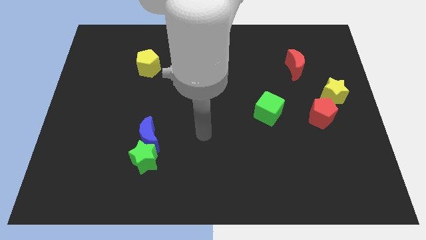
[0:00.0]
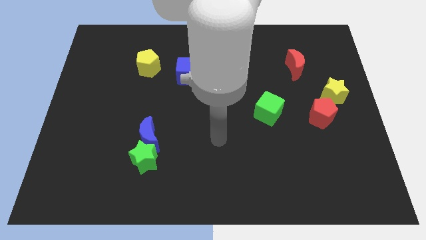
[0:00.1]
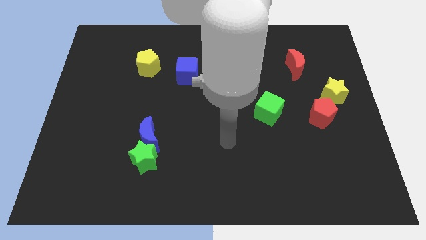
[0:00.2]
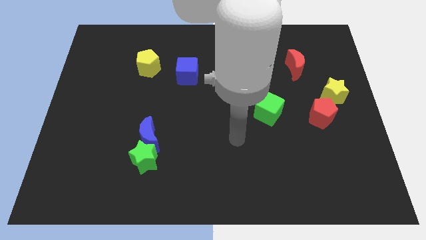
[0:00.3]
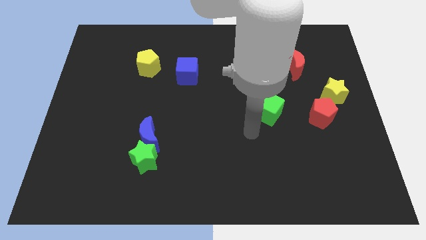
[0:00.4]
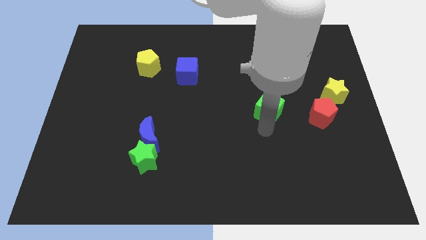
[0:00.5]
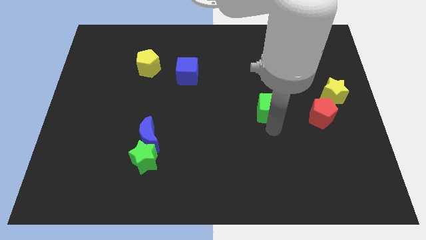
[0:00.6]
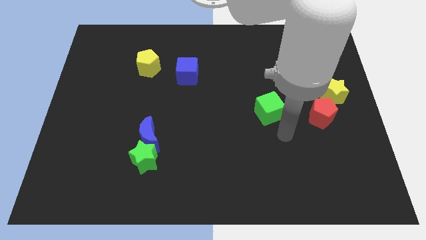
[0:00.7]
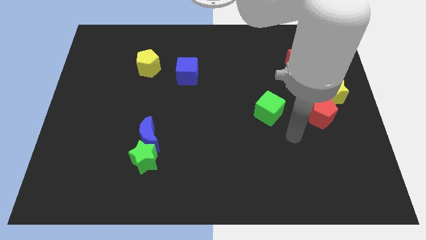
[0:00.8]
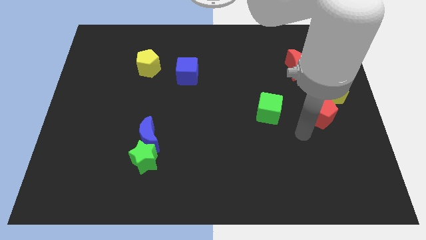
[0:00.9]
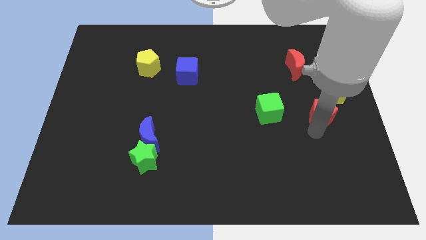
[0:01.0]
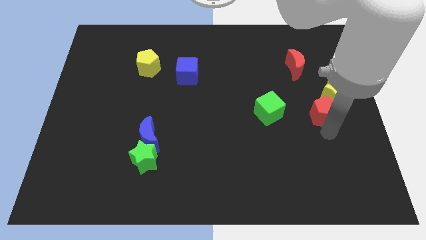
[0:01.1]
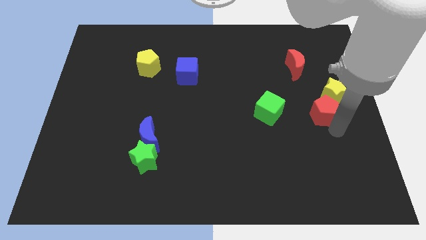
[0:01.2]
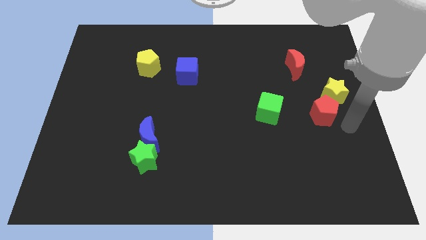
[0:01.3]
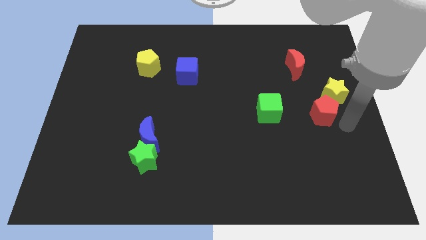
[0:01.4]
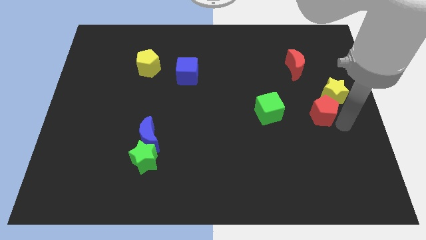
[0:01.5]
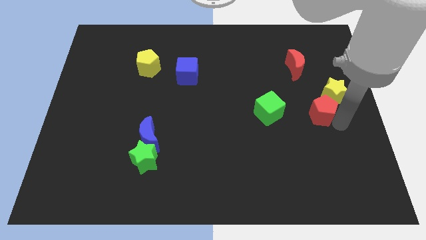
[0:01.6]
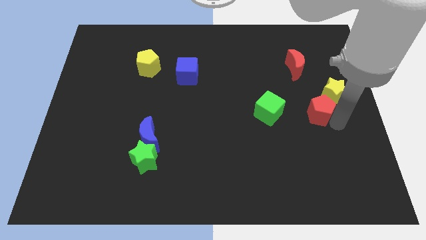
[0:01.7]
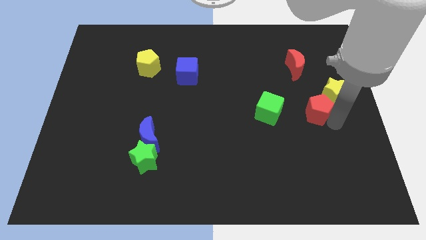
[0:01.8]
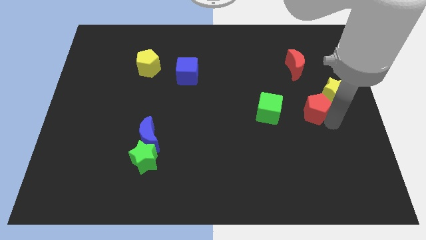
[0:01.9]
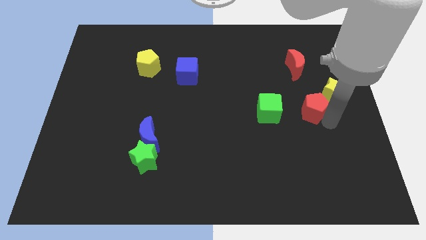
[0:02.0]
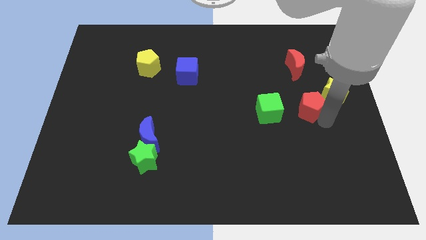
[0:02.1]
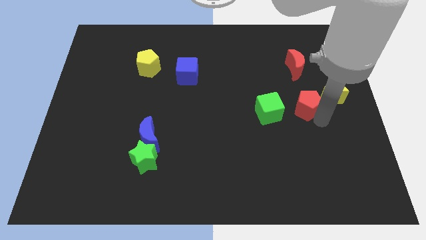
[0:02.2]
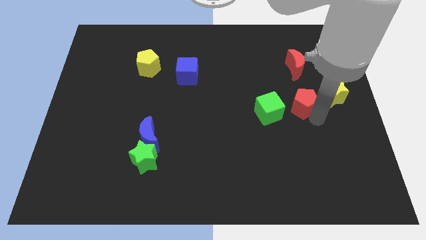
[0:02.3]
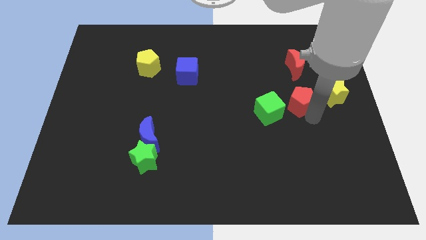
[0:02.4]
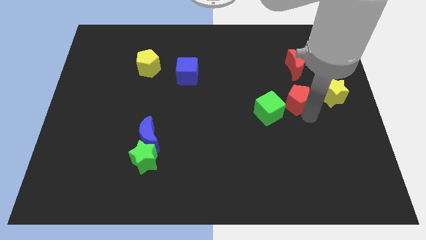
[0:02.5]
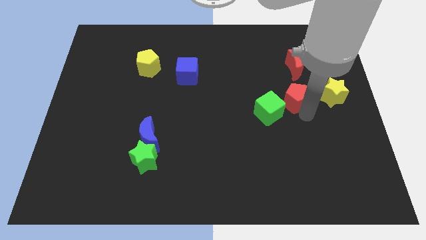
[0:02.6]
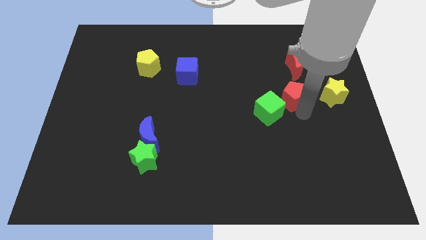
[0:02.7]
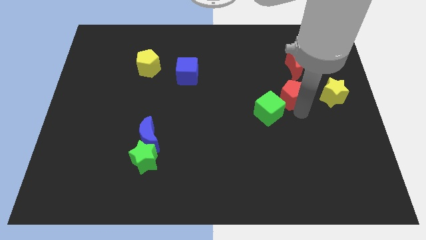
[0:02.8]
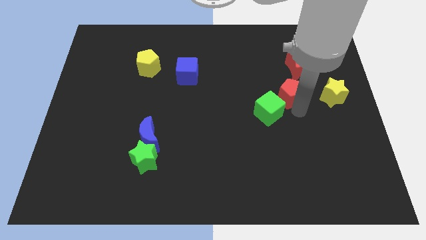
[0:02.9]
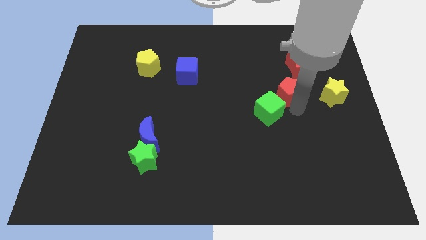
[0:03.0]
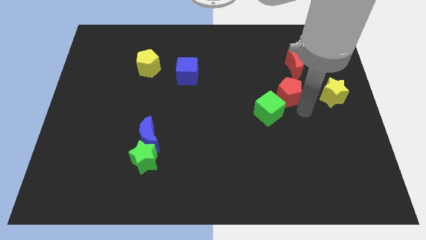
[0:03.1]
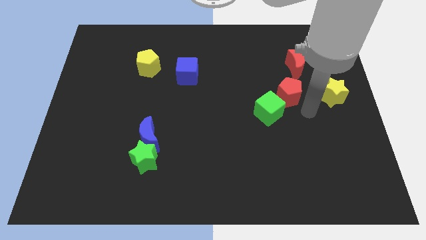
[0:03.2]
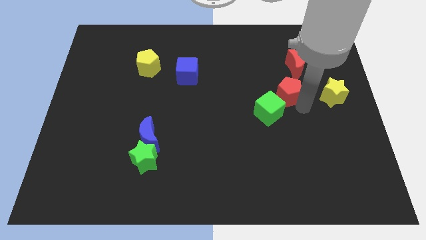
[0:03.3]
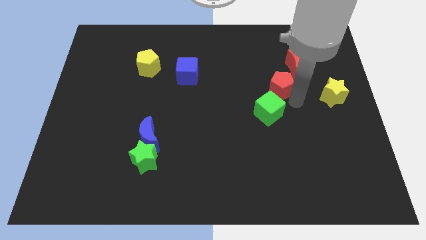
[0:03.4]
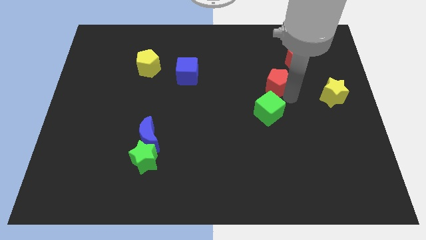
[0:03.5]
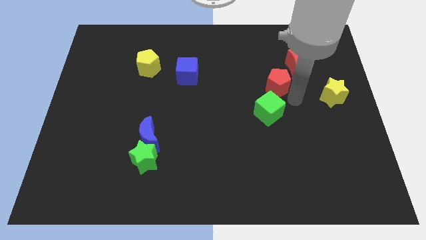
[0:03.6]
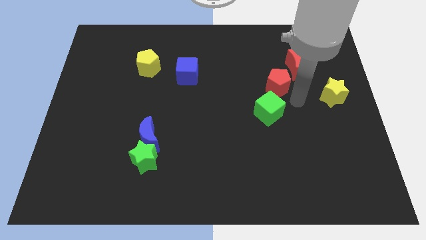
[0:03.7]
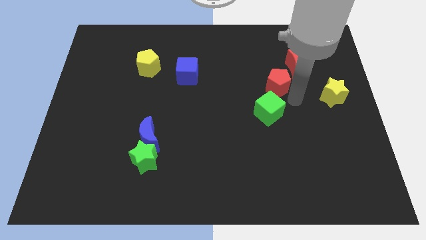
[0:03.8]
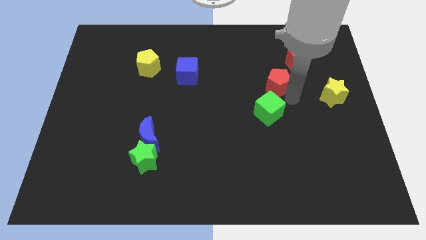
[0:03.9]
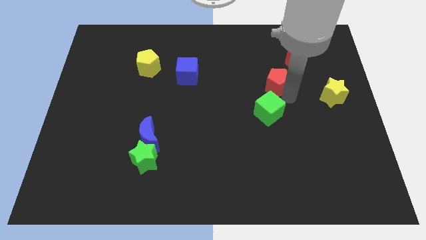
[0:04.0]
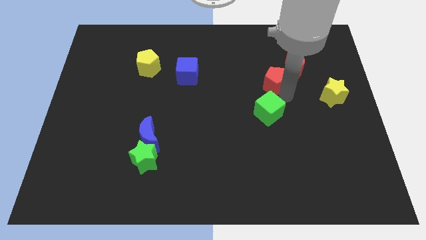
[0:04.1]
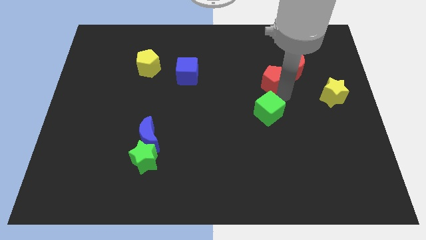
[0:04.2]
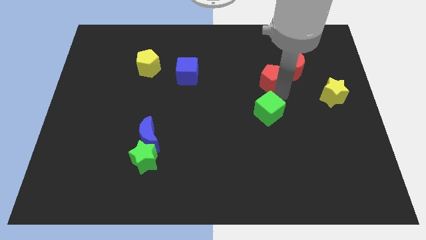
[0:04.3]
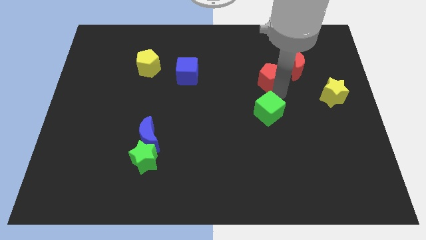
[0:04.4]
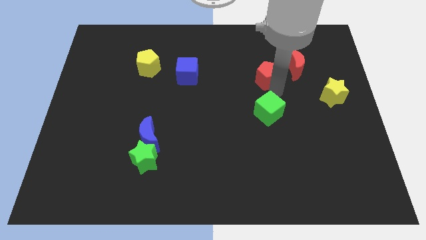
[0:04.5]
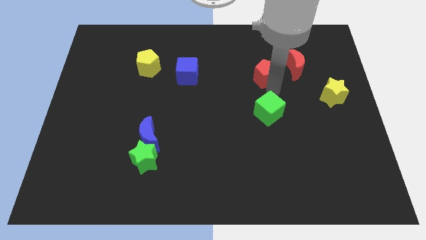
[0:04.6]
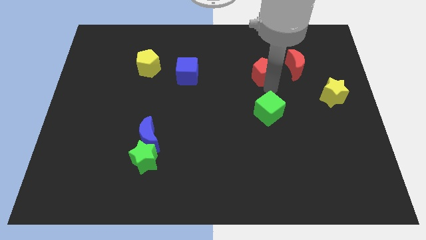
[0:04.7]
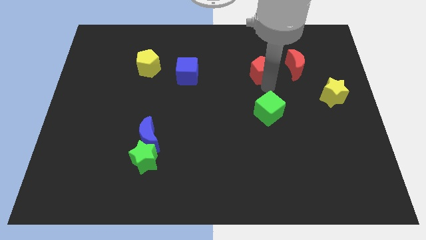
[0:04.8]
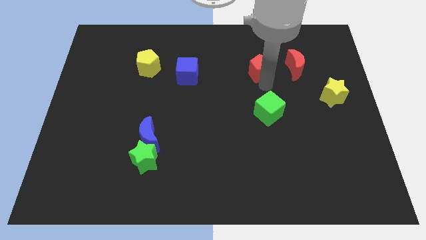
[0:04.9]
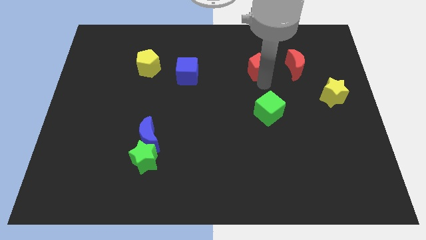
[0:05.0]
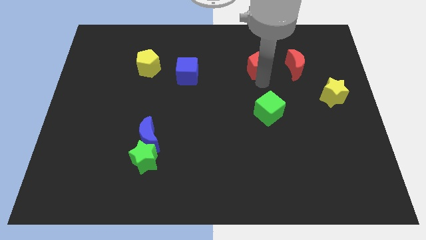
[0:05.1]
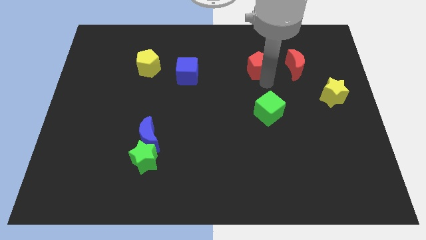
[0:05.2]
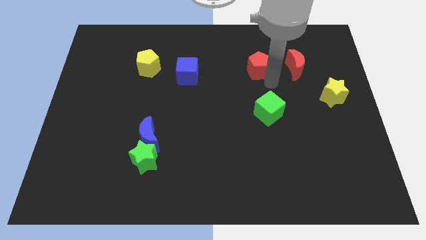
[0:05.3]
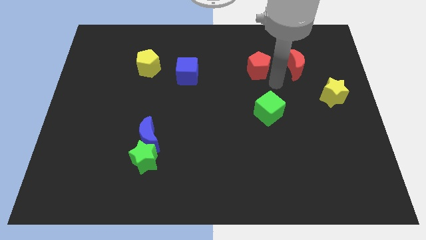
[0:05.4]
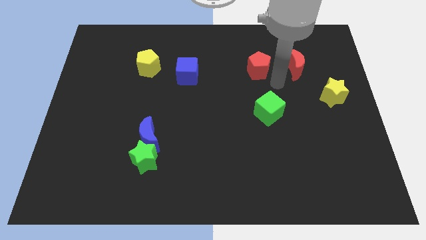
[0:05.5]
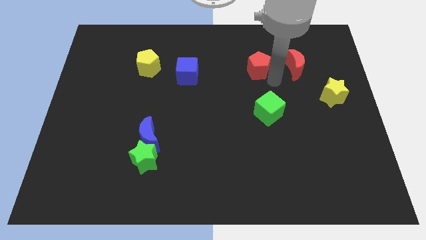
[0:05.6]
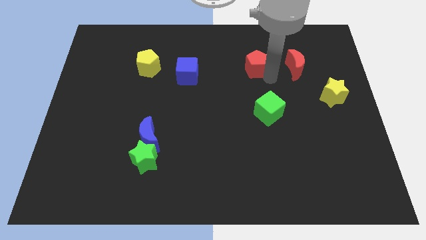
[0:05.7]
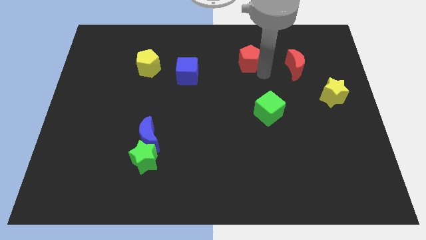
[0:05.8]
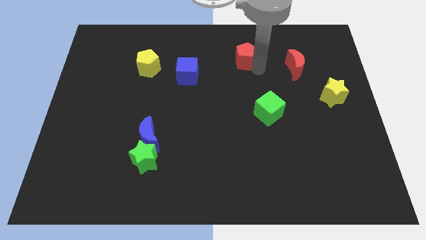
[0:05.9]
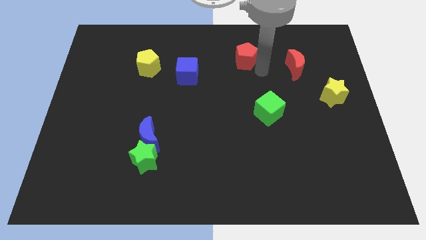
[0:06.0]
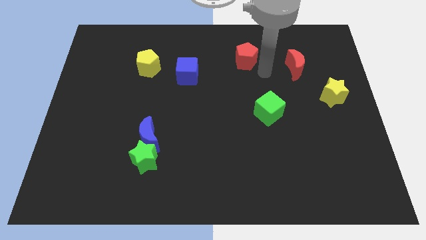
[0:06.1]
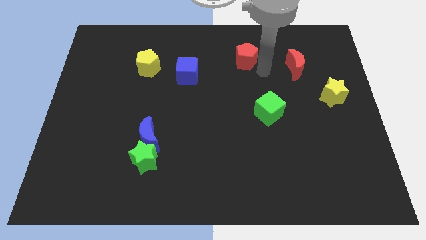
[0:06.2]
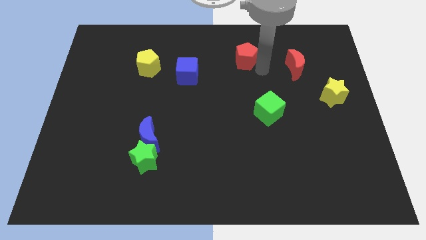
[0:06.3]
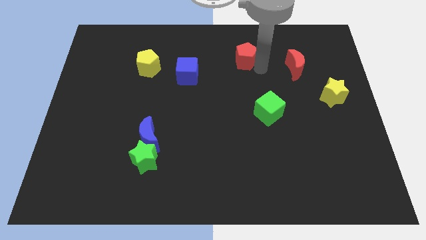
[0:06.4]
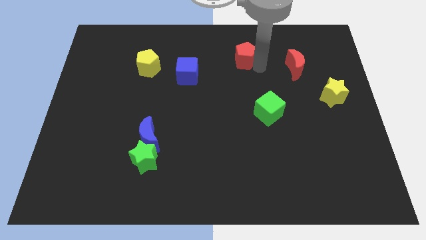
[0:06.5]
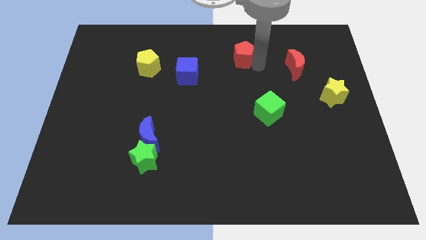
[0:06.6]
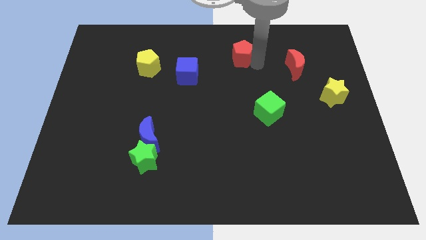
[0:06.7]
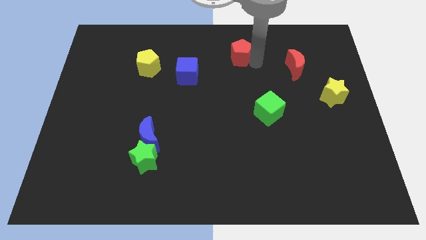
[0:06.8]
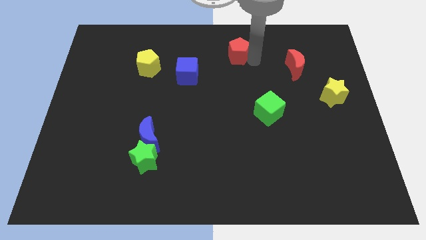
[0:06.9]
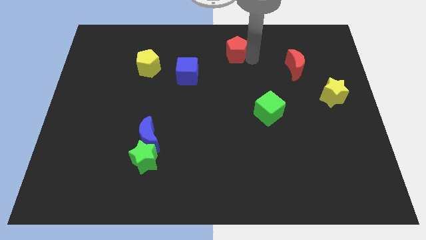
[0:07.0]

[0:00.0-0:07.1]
move the red pentagon to the towards your base
